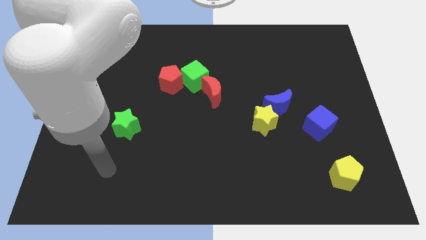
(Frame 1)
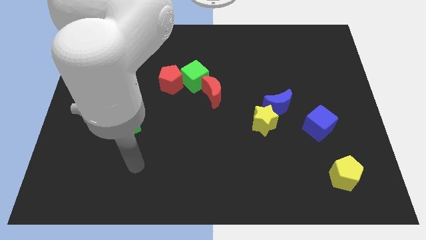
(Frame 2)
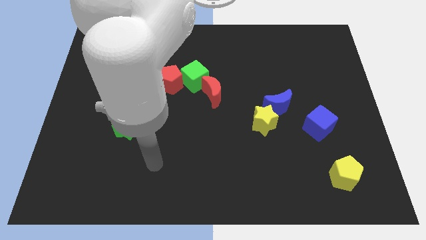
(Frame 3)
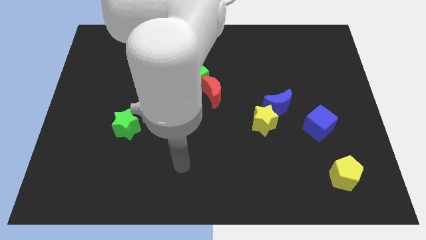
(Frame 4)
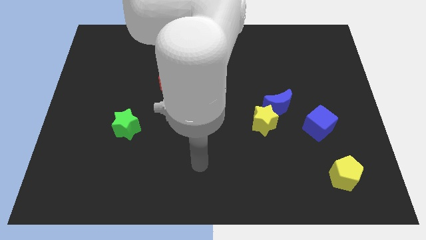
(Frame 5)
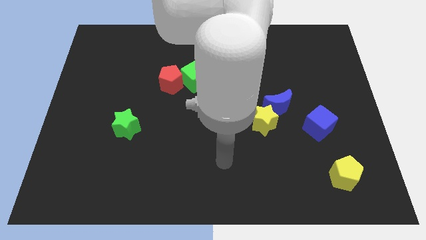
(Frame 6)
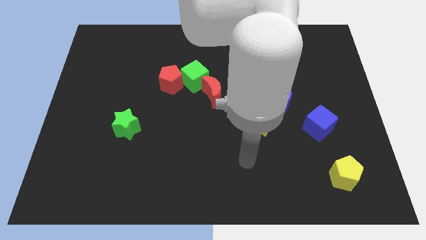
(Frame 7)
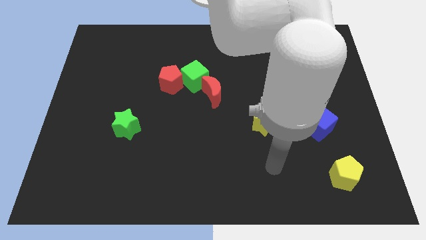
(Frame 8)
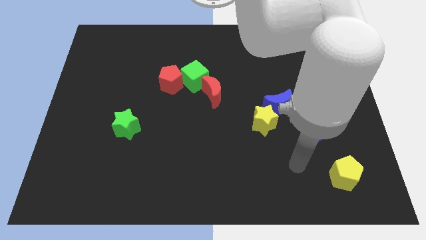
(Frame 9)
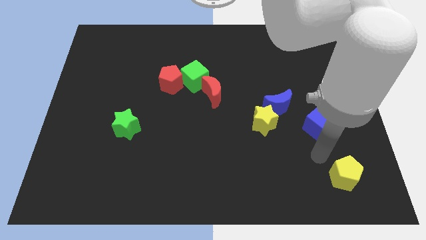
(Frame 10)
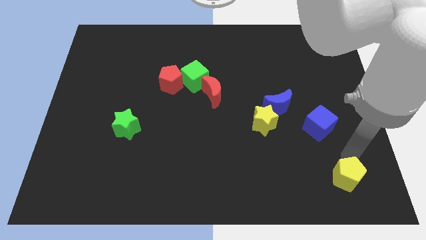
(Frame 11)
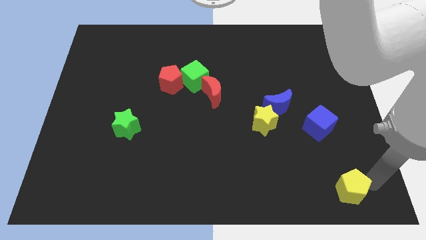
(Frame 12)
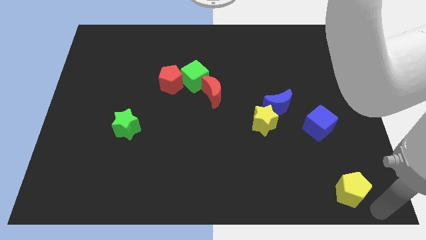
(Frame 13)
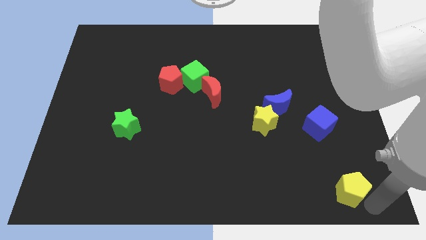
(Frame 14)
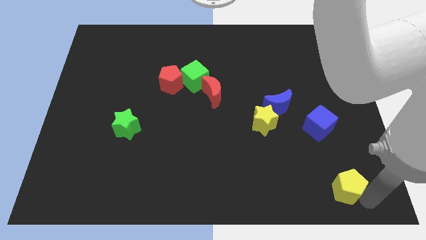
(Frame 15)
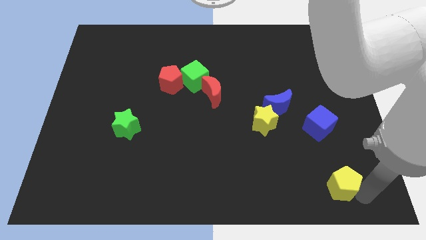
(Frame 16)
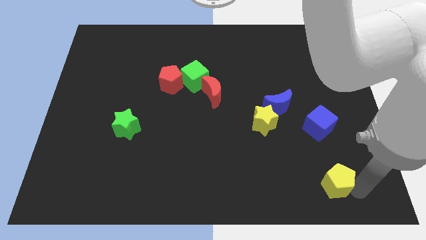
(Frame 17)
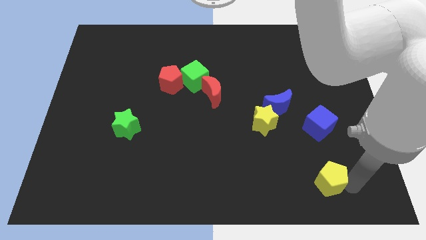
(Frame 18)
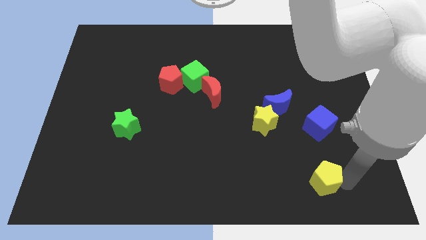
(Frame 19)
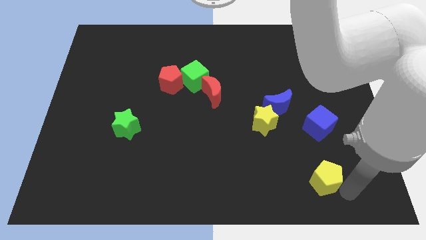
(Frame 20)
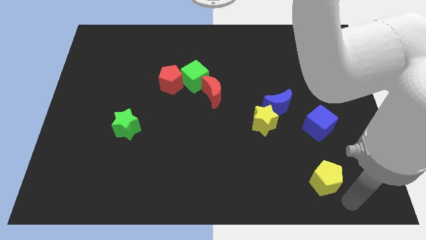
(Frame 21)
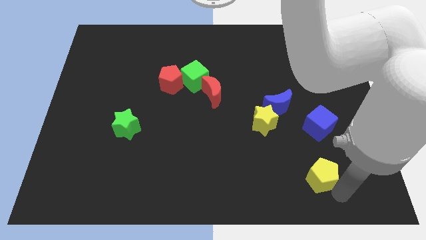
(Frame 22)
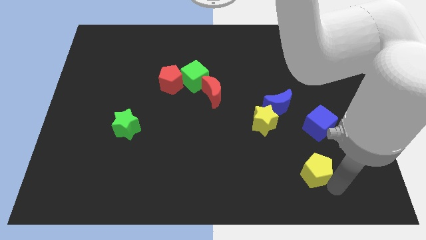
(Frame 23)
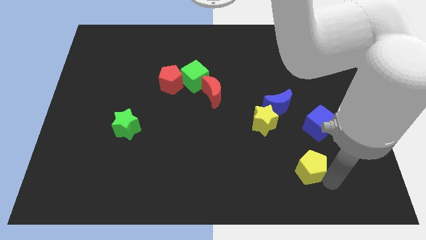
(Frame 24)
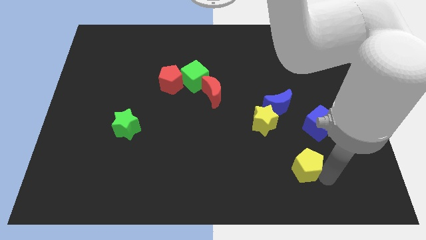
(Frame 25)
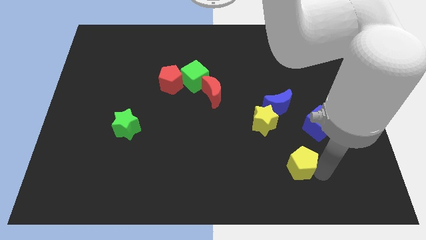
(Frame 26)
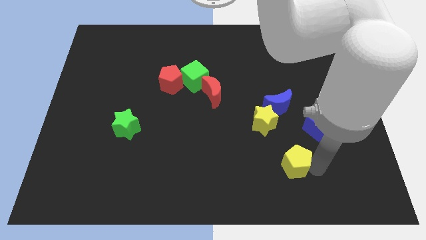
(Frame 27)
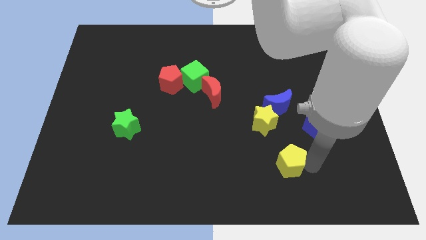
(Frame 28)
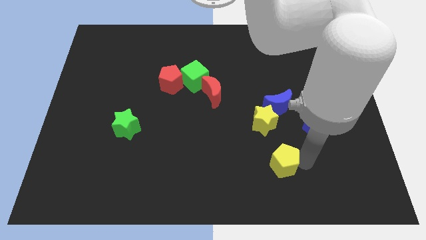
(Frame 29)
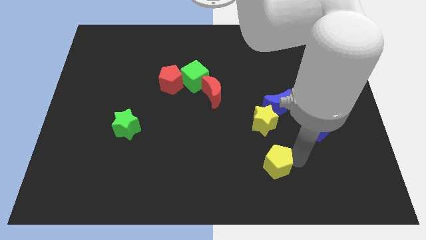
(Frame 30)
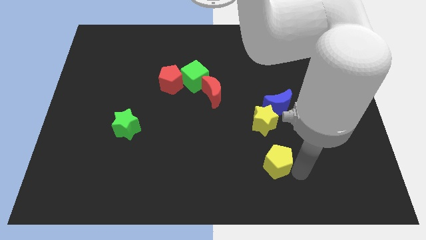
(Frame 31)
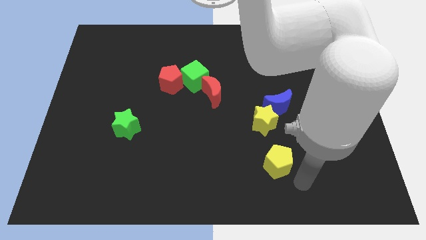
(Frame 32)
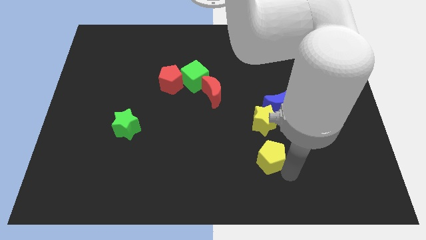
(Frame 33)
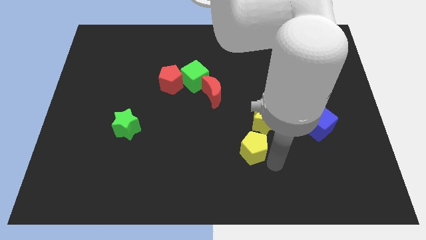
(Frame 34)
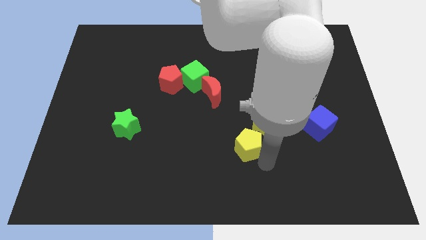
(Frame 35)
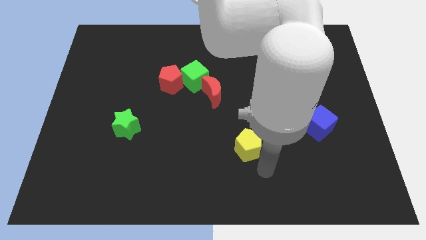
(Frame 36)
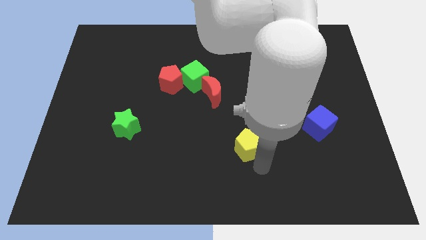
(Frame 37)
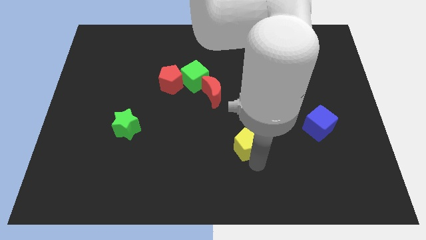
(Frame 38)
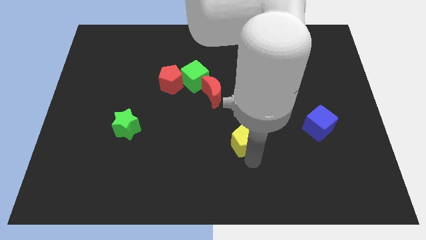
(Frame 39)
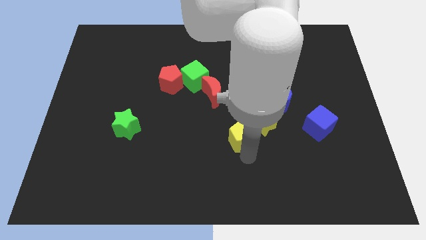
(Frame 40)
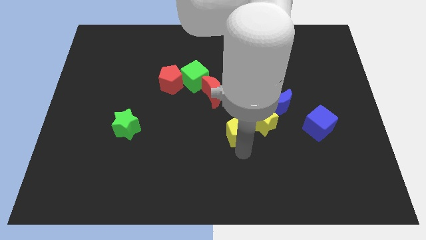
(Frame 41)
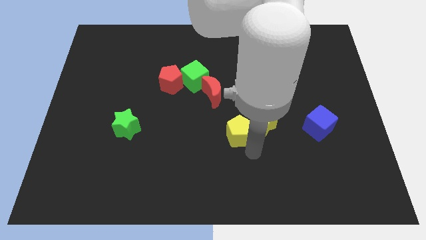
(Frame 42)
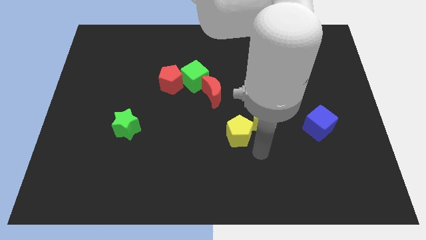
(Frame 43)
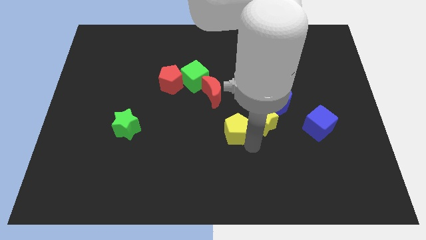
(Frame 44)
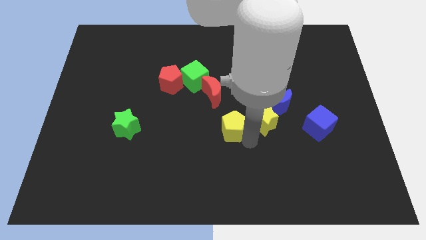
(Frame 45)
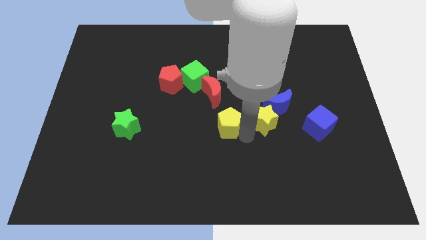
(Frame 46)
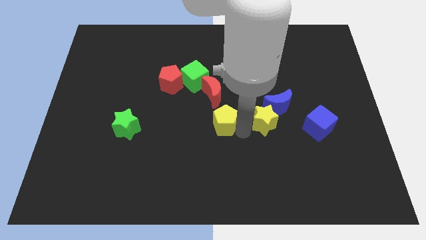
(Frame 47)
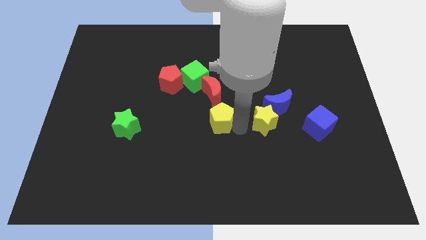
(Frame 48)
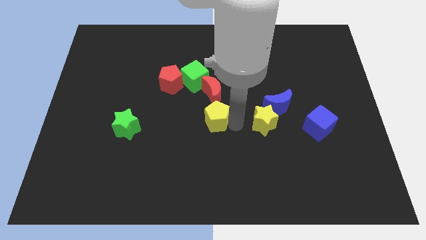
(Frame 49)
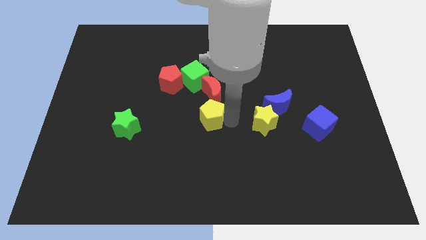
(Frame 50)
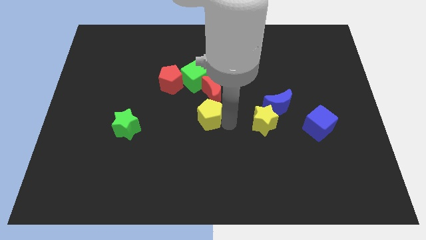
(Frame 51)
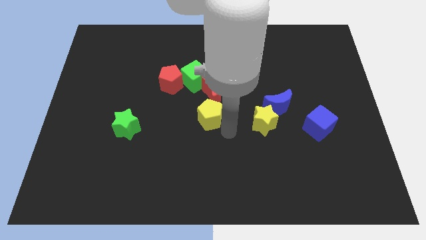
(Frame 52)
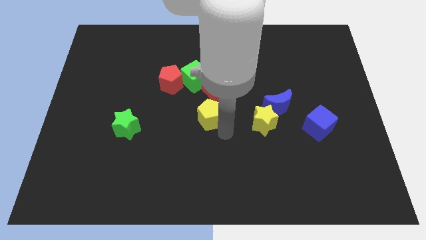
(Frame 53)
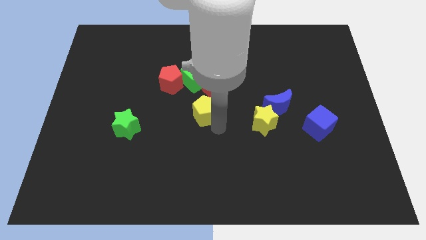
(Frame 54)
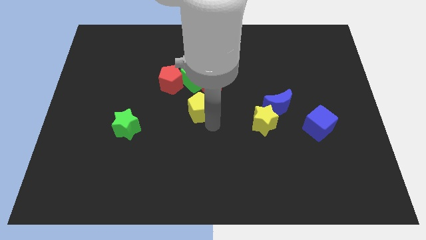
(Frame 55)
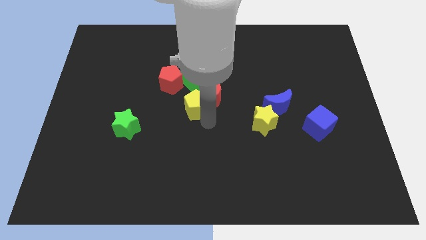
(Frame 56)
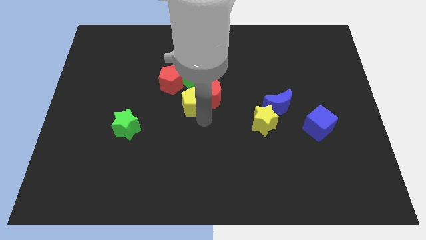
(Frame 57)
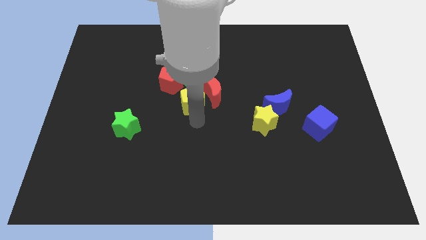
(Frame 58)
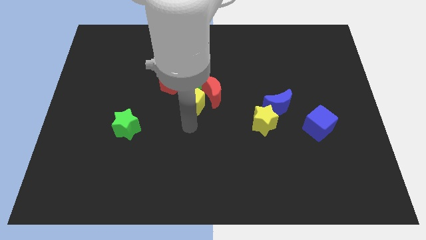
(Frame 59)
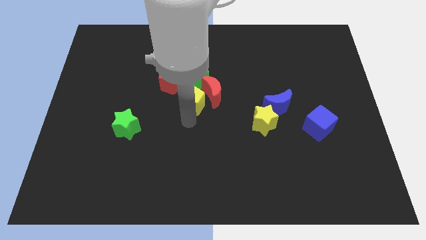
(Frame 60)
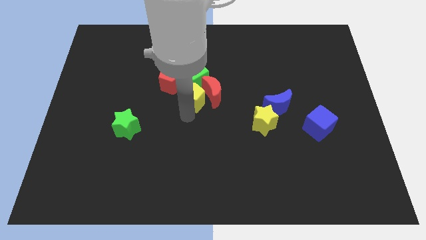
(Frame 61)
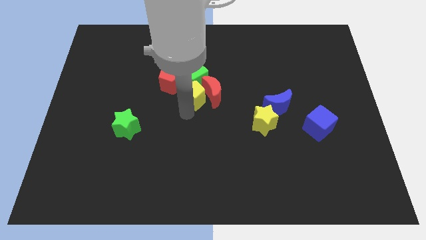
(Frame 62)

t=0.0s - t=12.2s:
move the yellow pentagon close to the green cube

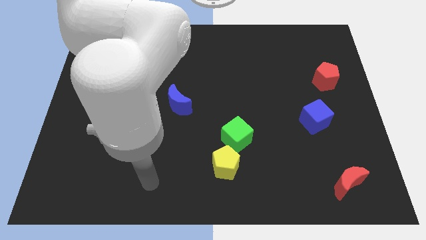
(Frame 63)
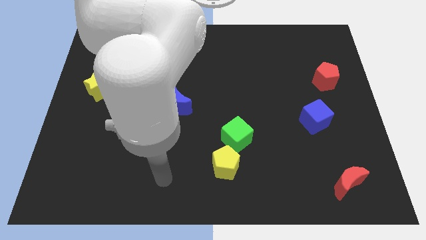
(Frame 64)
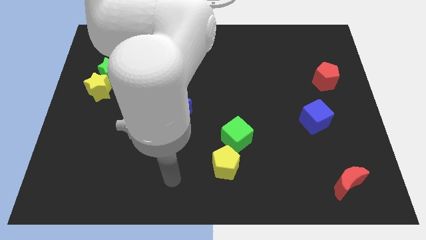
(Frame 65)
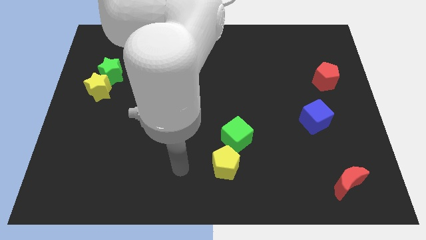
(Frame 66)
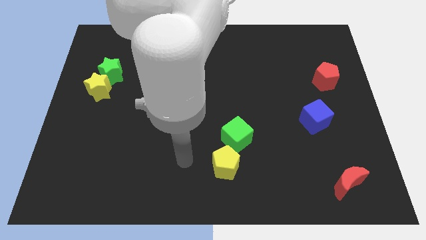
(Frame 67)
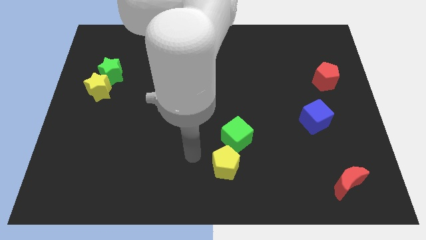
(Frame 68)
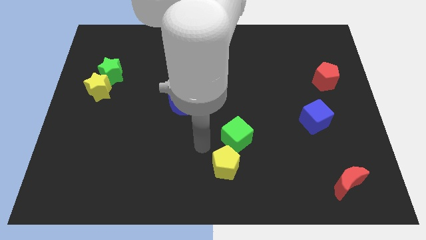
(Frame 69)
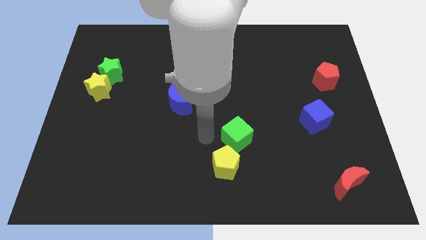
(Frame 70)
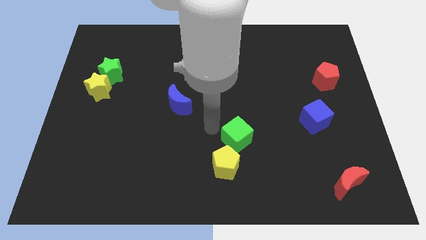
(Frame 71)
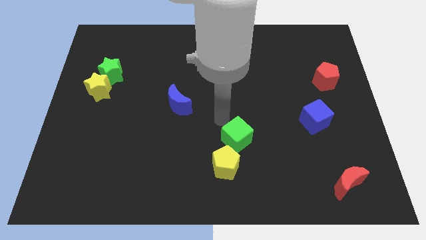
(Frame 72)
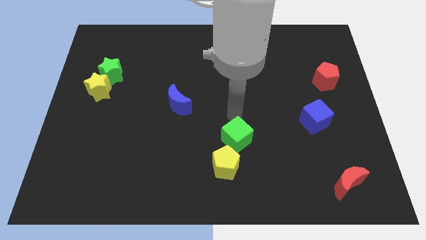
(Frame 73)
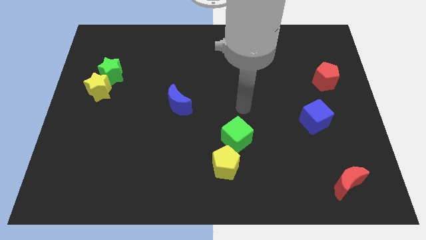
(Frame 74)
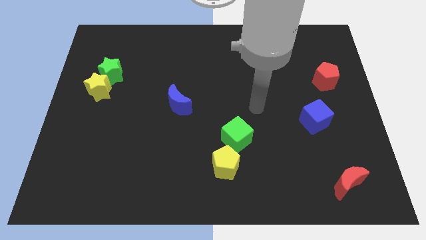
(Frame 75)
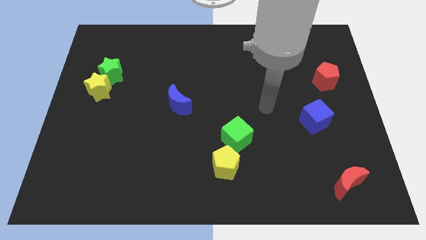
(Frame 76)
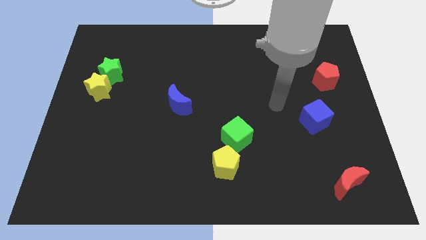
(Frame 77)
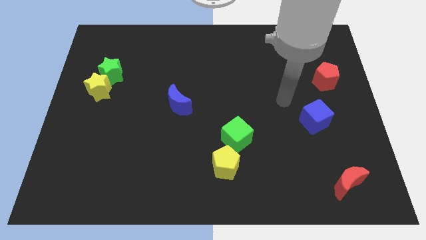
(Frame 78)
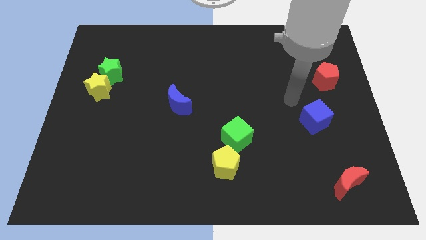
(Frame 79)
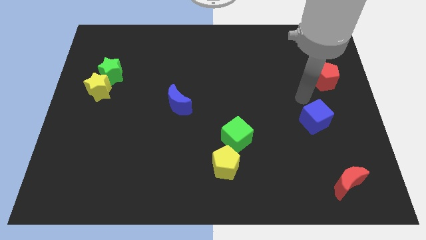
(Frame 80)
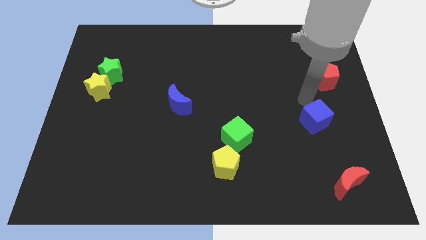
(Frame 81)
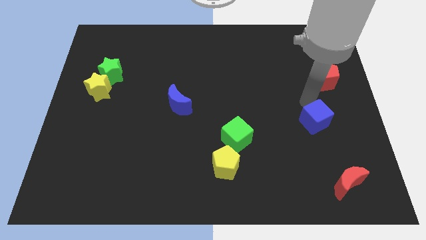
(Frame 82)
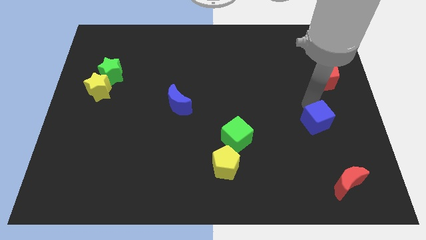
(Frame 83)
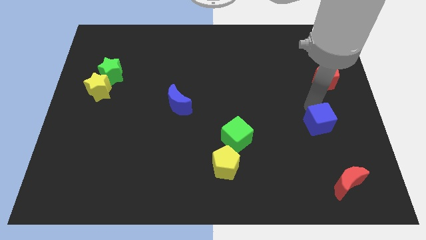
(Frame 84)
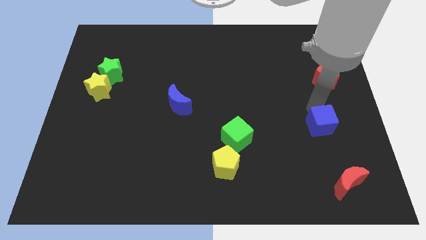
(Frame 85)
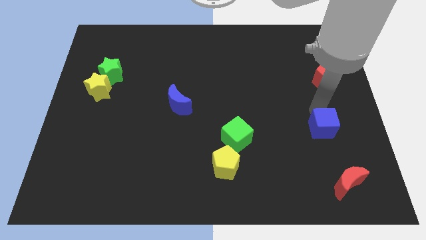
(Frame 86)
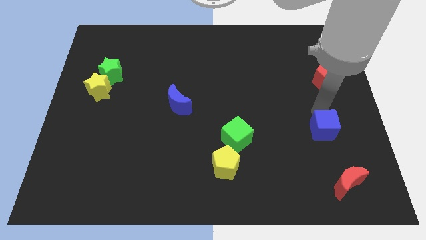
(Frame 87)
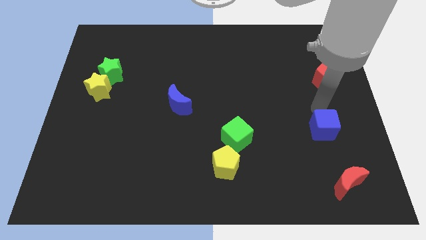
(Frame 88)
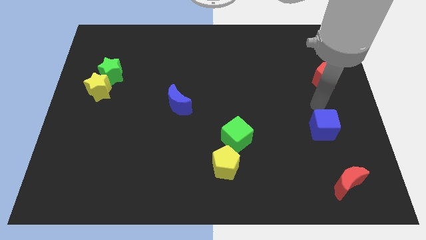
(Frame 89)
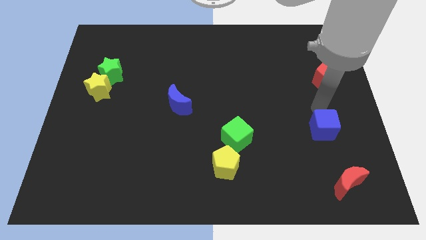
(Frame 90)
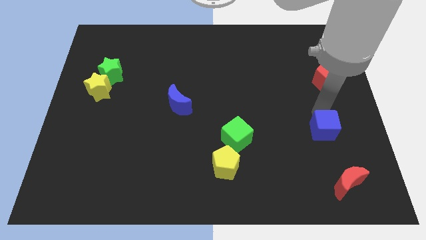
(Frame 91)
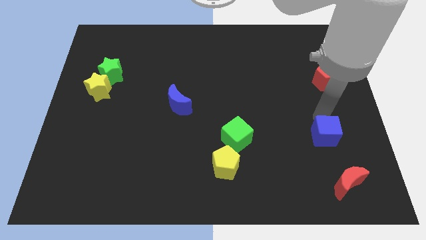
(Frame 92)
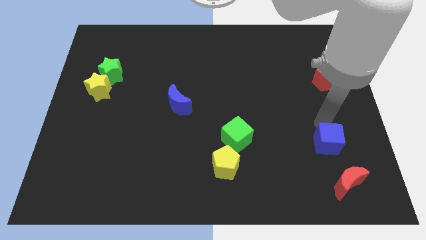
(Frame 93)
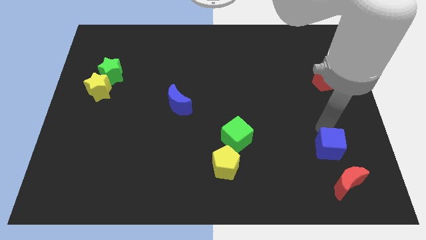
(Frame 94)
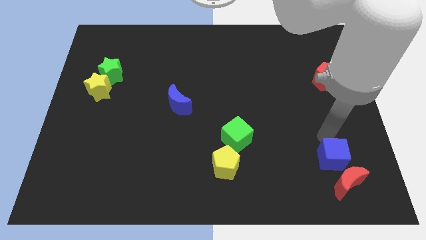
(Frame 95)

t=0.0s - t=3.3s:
slide the blue cube towards the red moon
